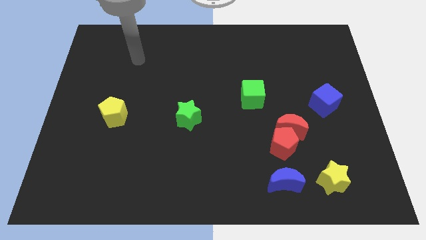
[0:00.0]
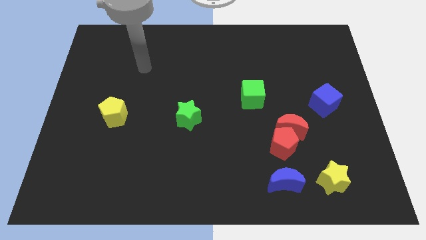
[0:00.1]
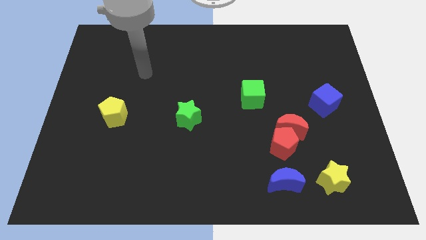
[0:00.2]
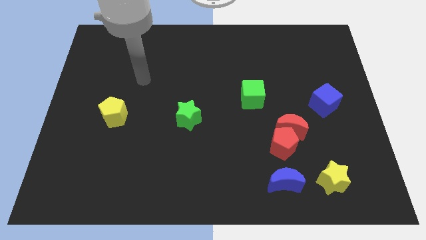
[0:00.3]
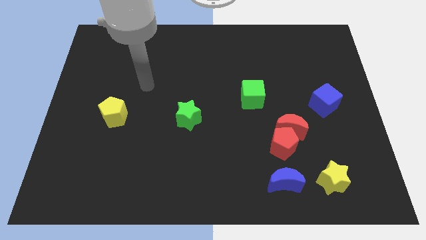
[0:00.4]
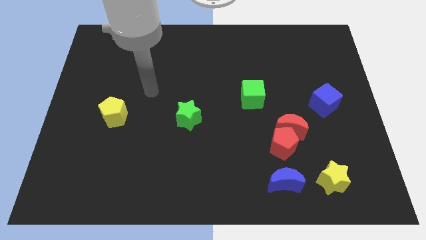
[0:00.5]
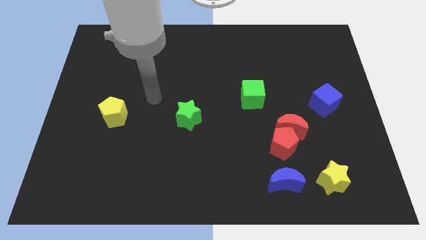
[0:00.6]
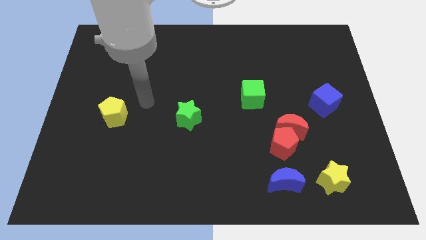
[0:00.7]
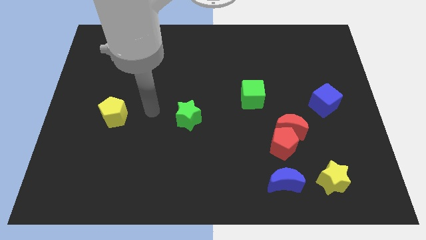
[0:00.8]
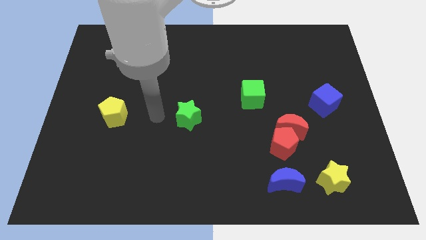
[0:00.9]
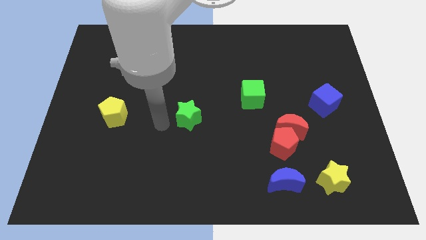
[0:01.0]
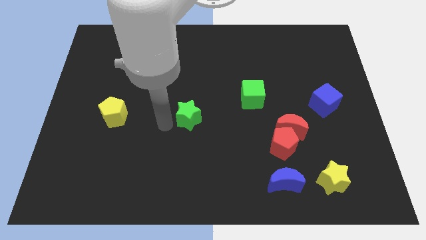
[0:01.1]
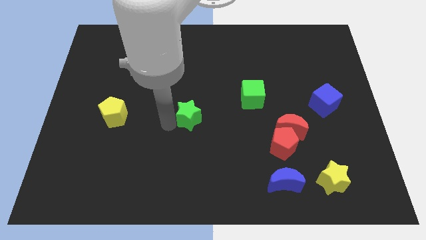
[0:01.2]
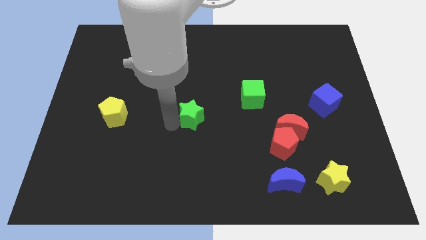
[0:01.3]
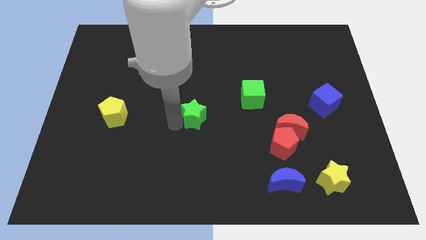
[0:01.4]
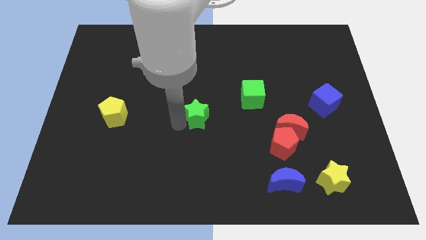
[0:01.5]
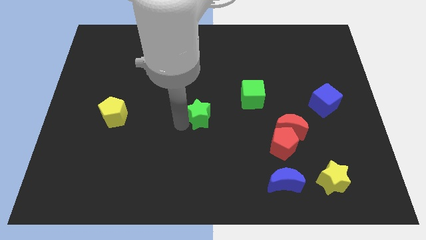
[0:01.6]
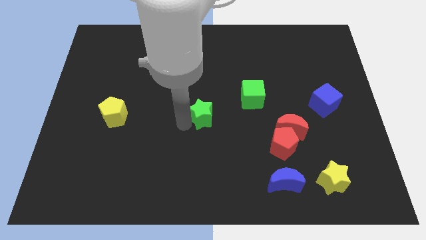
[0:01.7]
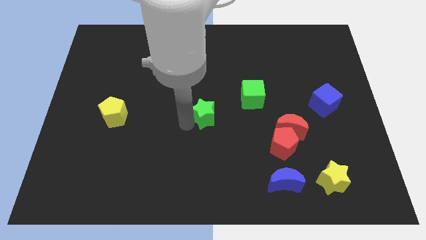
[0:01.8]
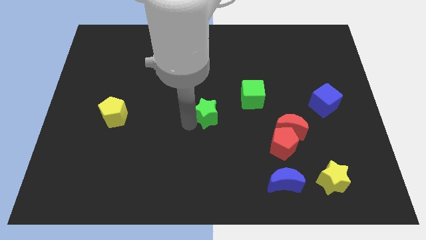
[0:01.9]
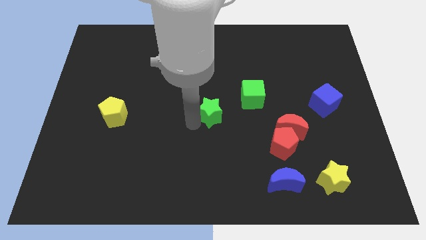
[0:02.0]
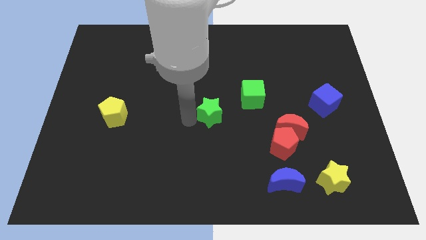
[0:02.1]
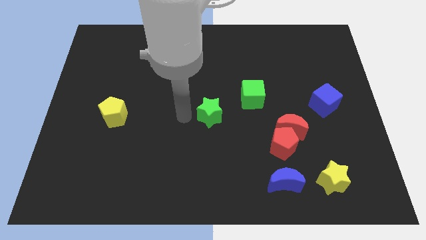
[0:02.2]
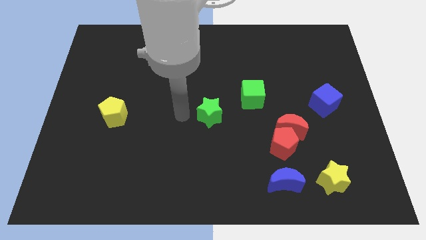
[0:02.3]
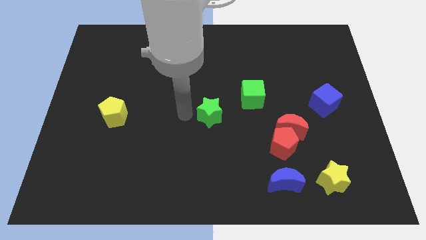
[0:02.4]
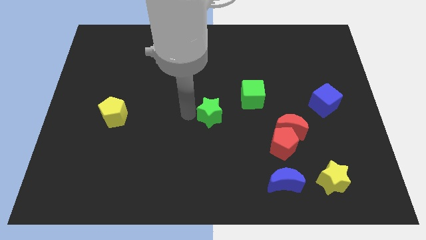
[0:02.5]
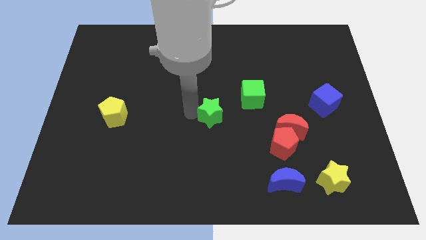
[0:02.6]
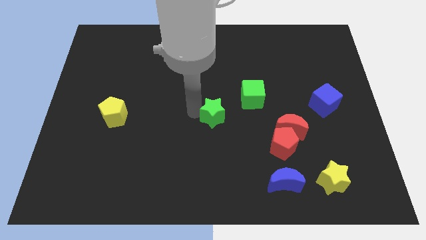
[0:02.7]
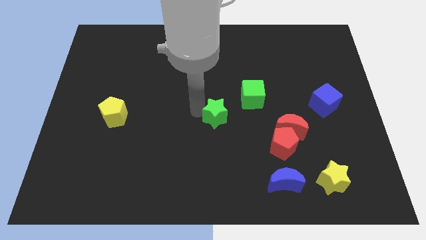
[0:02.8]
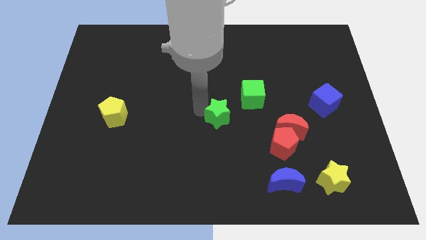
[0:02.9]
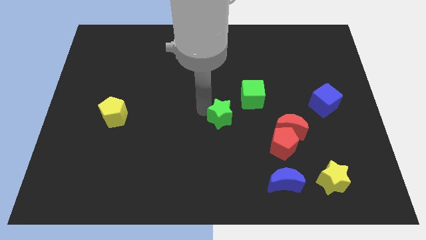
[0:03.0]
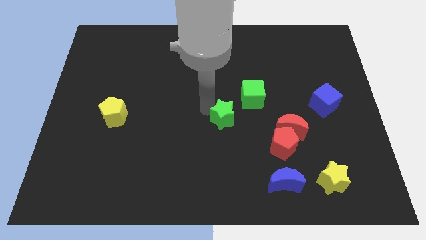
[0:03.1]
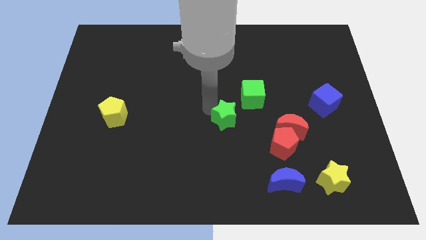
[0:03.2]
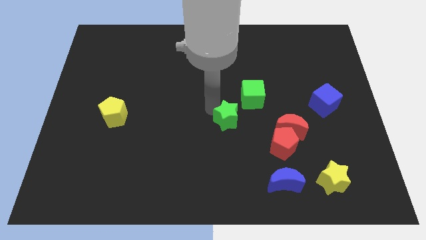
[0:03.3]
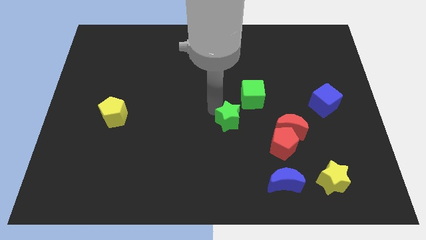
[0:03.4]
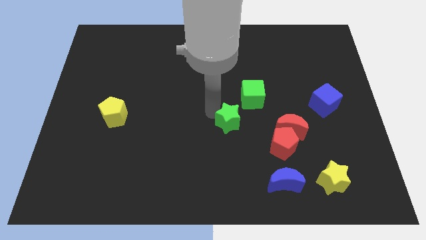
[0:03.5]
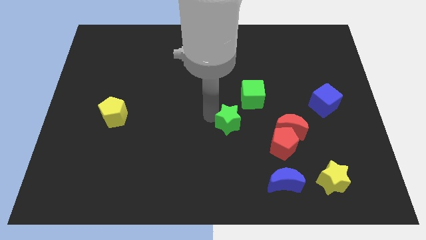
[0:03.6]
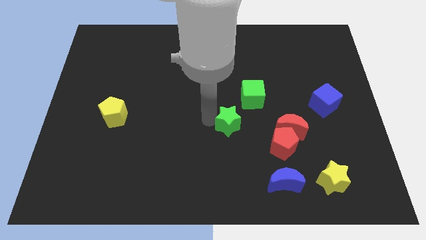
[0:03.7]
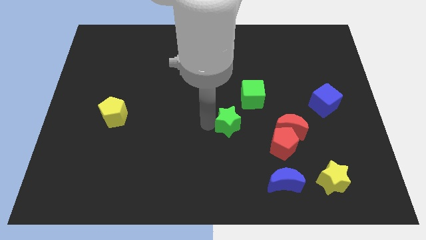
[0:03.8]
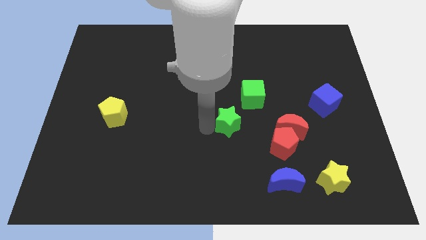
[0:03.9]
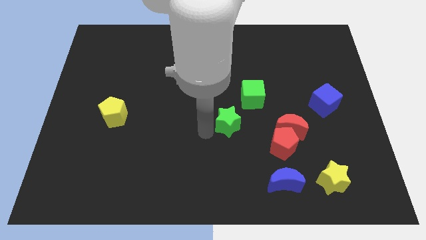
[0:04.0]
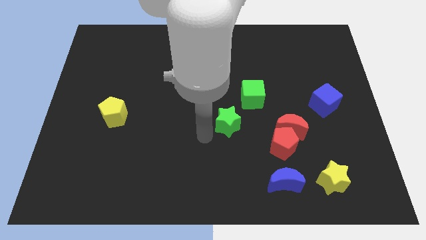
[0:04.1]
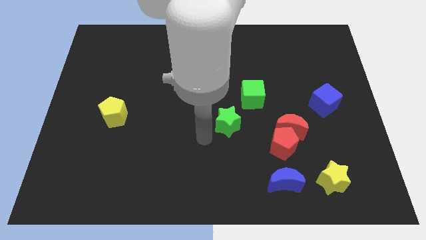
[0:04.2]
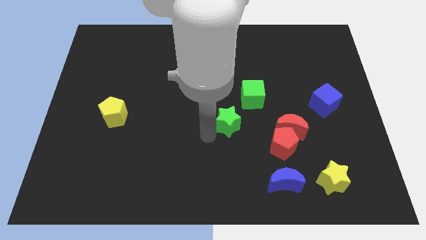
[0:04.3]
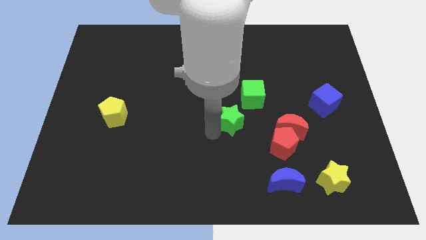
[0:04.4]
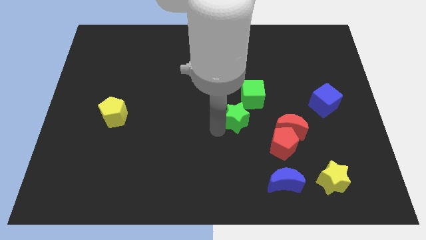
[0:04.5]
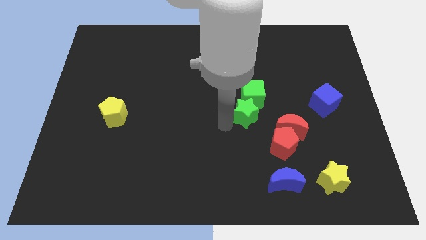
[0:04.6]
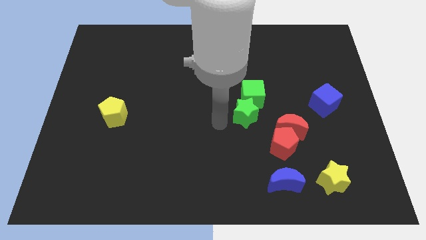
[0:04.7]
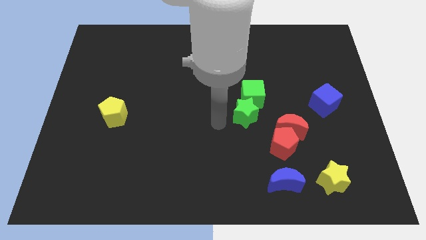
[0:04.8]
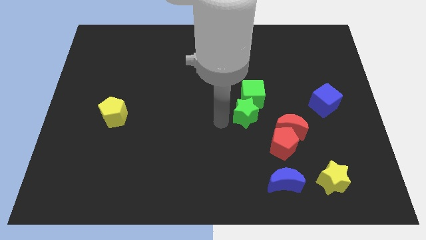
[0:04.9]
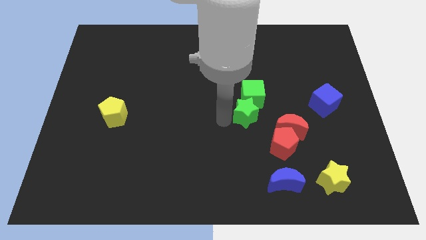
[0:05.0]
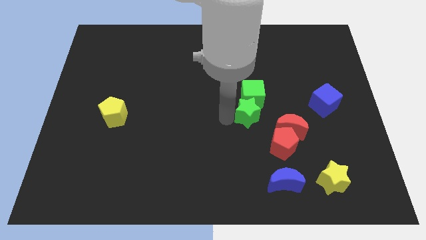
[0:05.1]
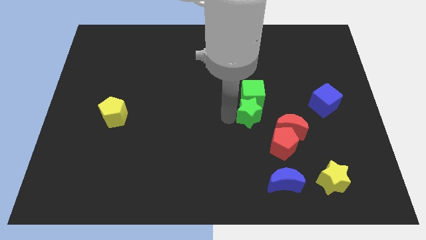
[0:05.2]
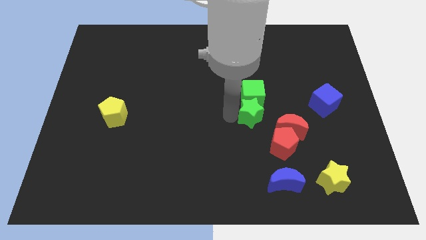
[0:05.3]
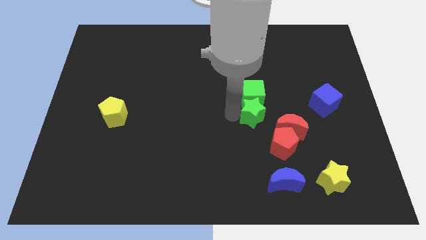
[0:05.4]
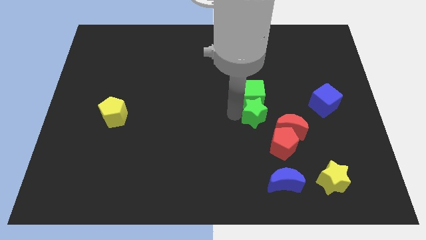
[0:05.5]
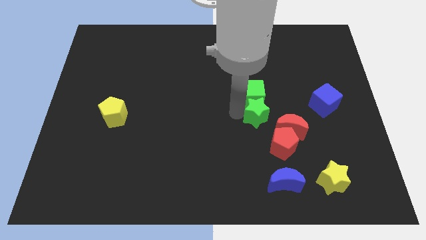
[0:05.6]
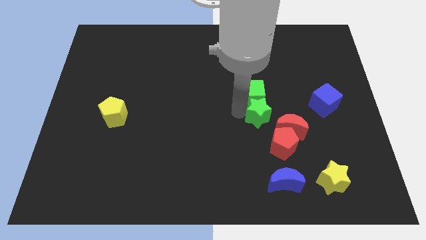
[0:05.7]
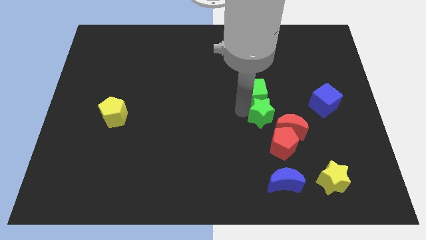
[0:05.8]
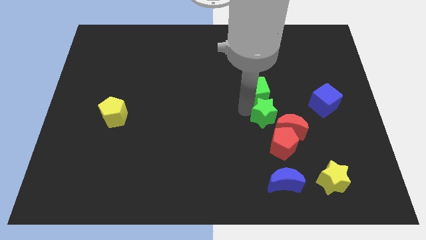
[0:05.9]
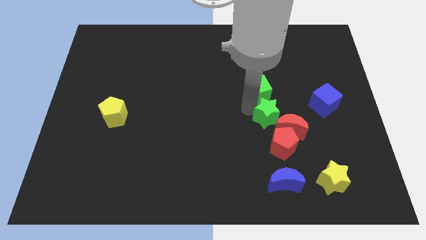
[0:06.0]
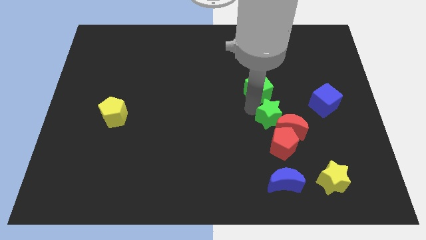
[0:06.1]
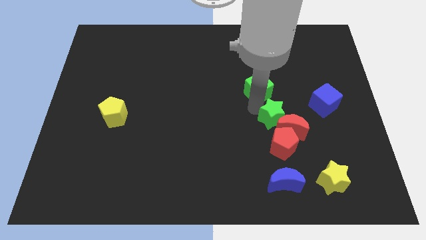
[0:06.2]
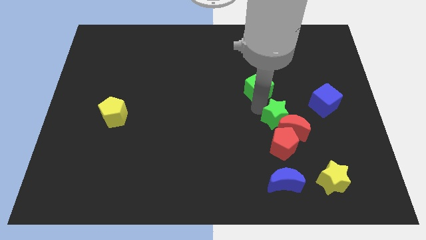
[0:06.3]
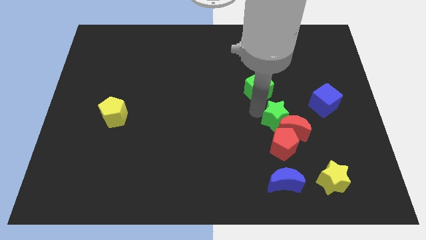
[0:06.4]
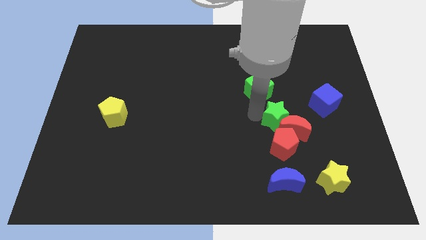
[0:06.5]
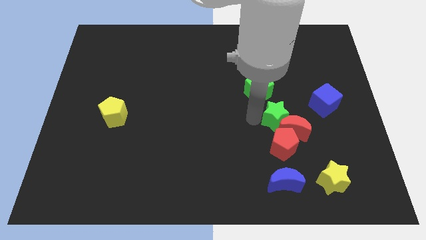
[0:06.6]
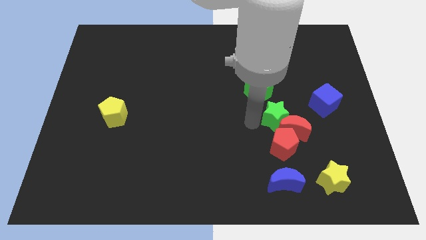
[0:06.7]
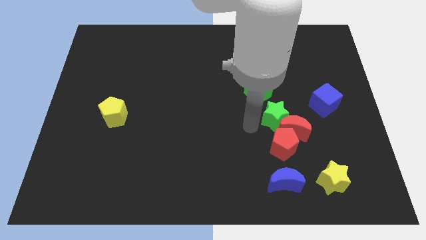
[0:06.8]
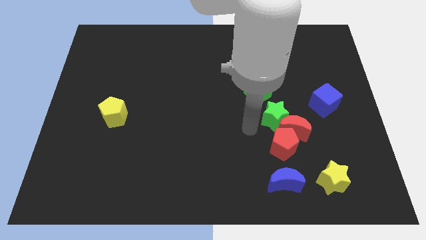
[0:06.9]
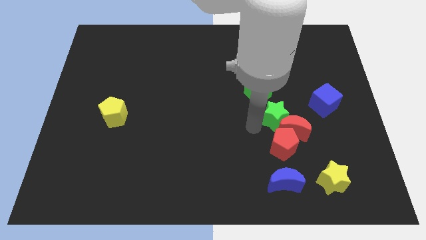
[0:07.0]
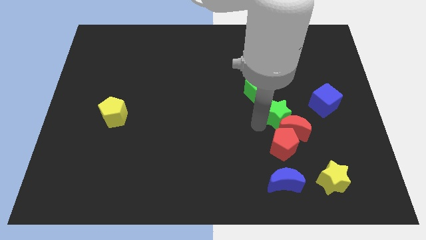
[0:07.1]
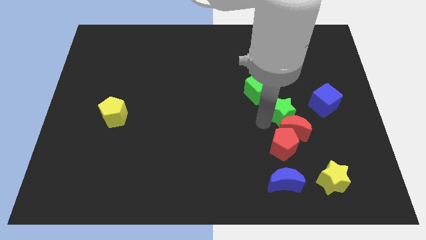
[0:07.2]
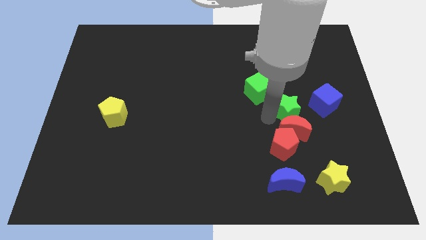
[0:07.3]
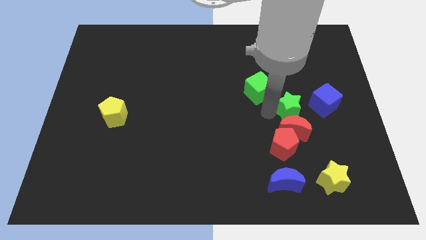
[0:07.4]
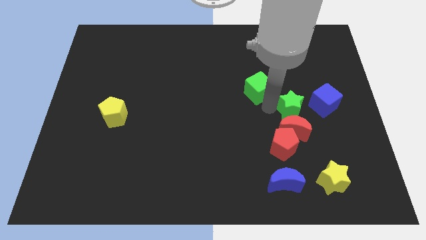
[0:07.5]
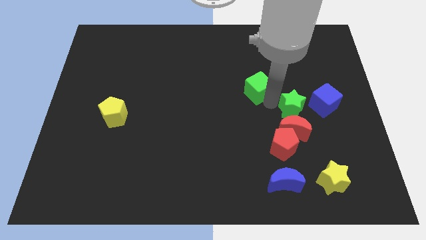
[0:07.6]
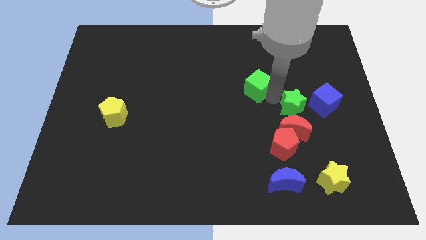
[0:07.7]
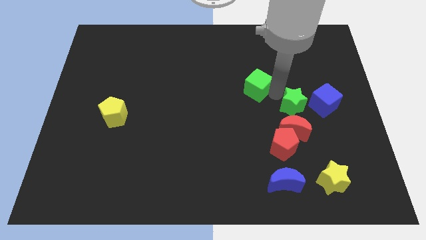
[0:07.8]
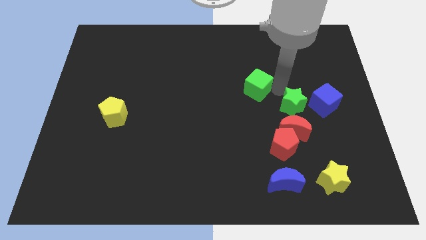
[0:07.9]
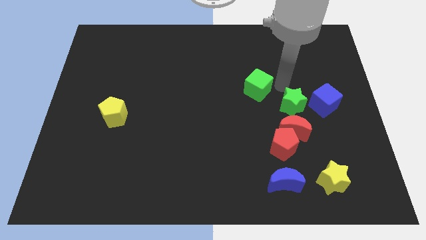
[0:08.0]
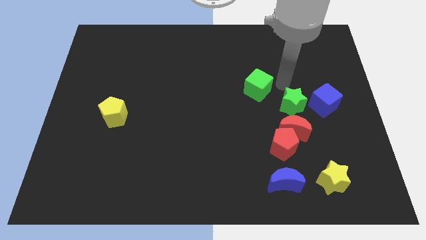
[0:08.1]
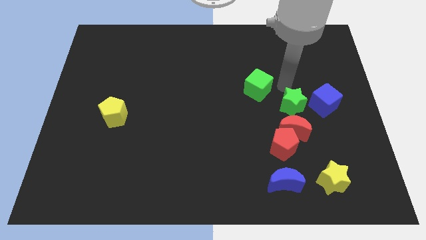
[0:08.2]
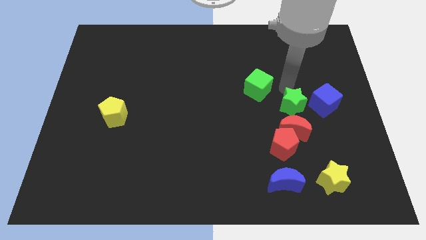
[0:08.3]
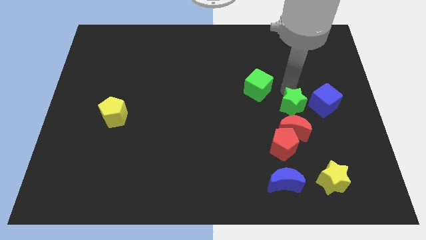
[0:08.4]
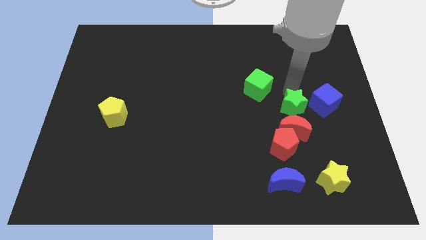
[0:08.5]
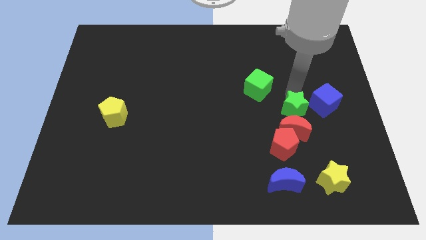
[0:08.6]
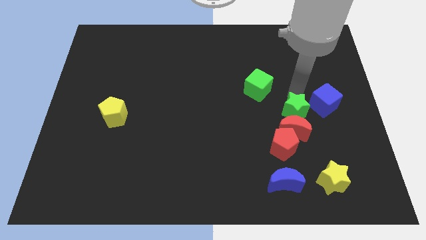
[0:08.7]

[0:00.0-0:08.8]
slide the green star diagonally up and to the right of the red pentagon
